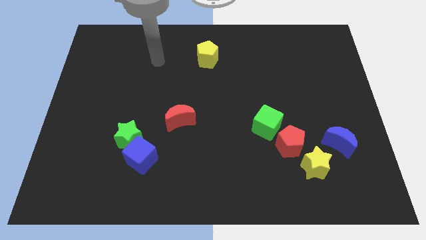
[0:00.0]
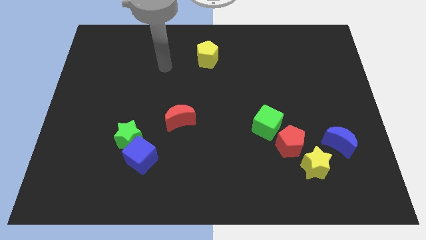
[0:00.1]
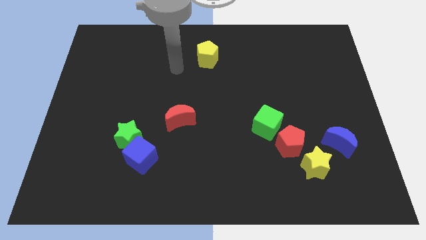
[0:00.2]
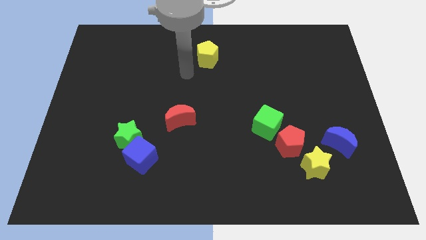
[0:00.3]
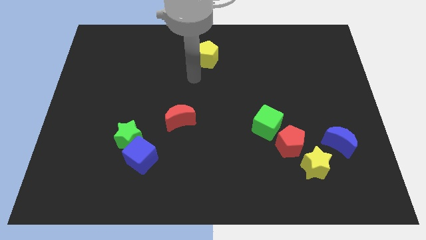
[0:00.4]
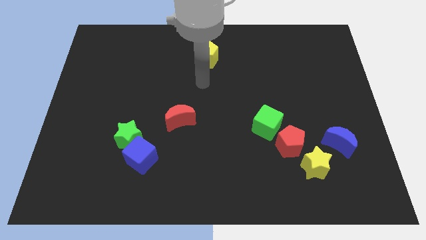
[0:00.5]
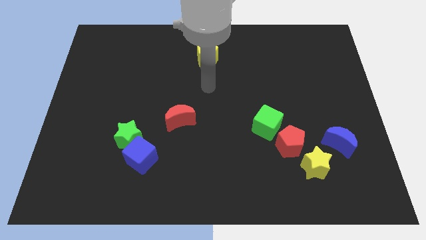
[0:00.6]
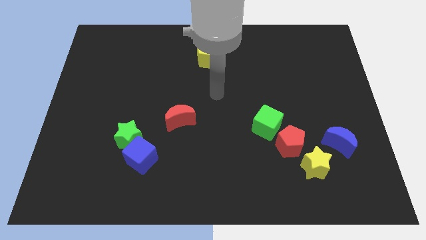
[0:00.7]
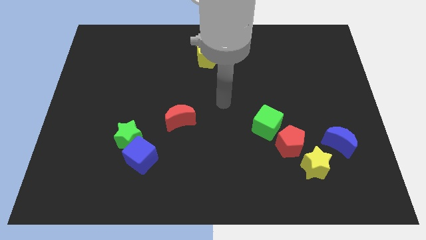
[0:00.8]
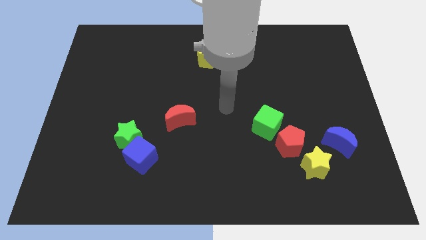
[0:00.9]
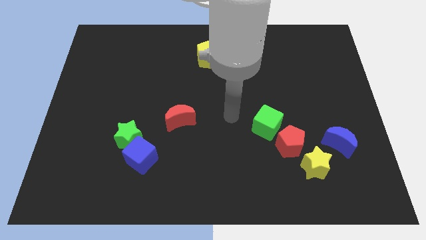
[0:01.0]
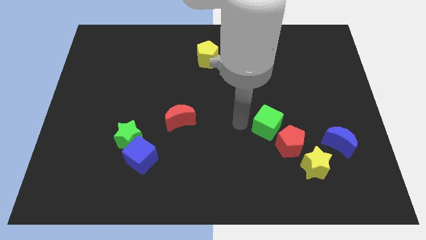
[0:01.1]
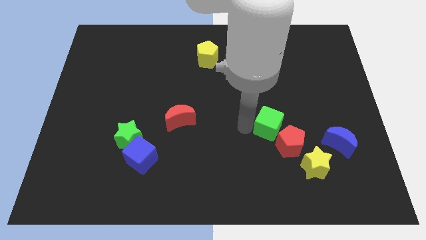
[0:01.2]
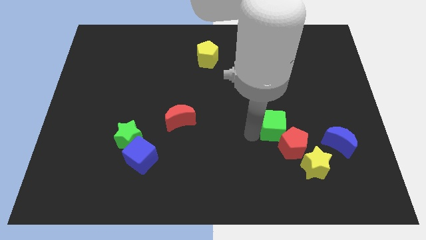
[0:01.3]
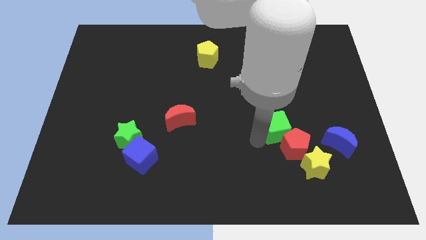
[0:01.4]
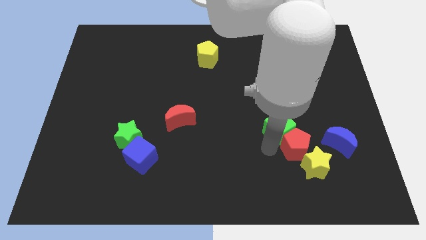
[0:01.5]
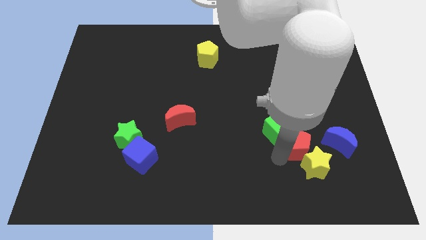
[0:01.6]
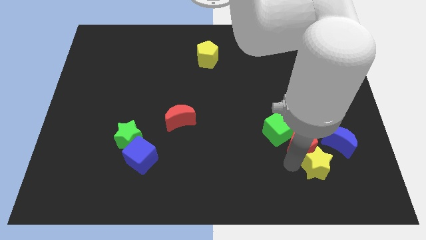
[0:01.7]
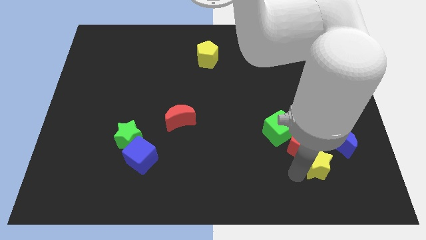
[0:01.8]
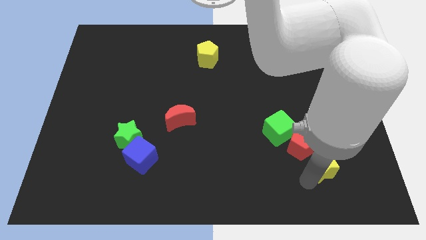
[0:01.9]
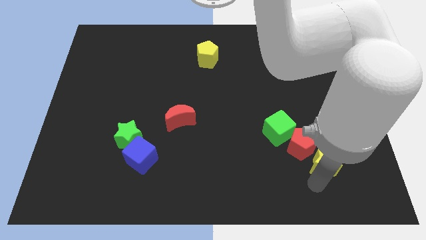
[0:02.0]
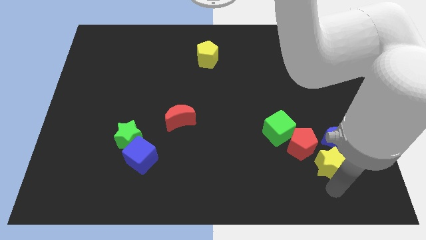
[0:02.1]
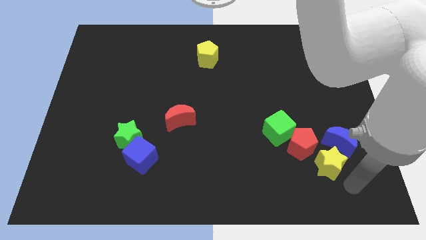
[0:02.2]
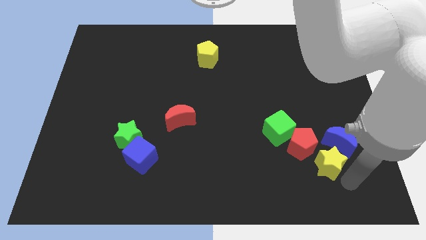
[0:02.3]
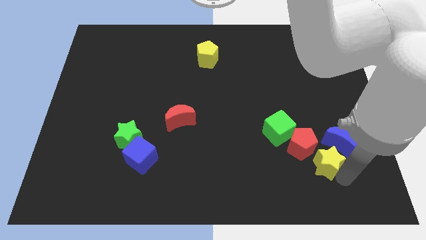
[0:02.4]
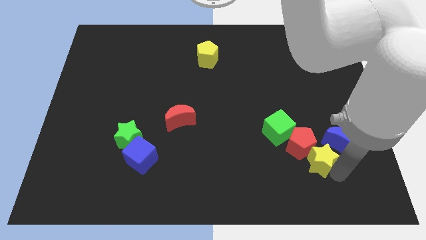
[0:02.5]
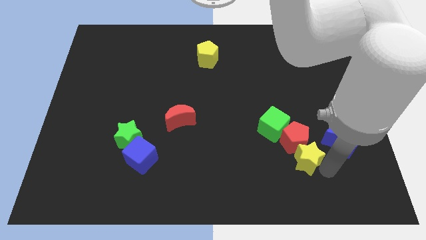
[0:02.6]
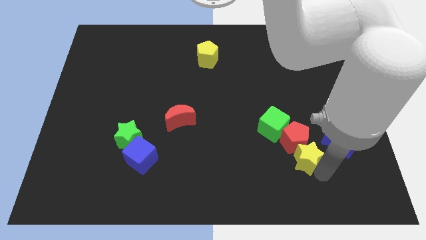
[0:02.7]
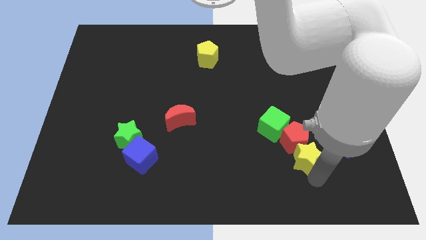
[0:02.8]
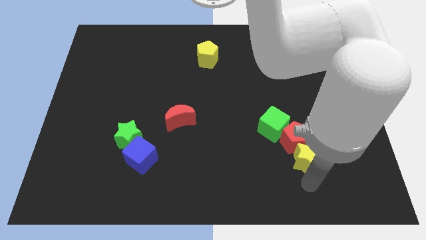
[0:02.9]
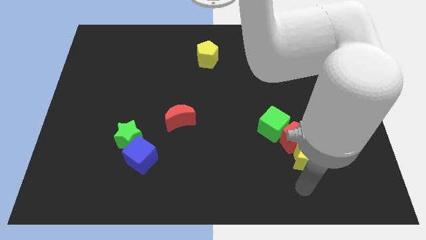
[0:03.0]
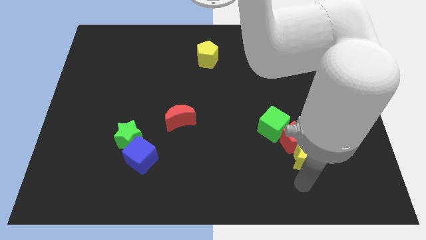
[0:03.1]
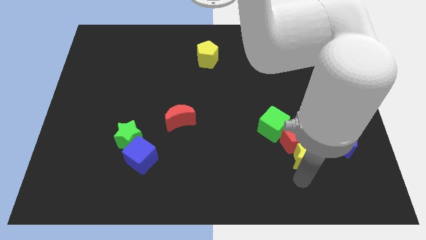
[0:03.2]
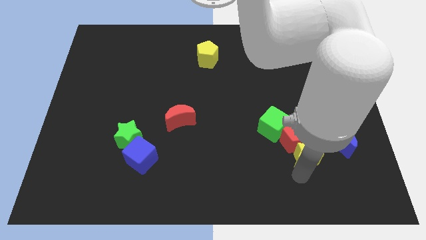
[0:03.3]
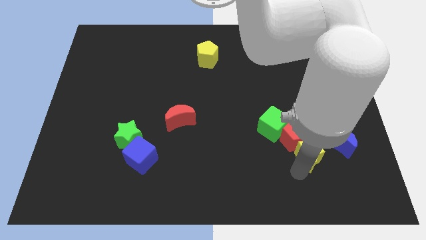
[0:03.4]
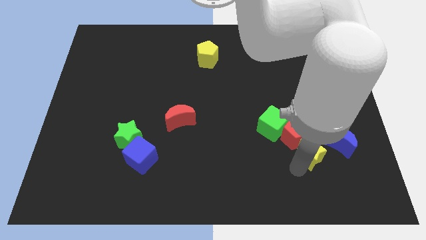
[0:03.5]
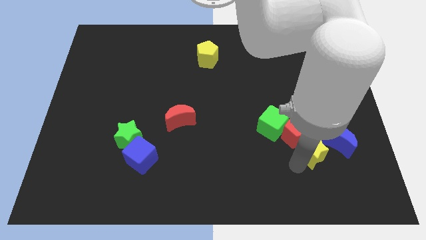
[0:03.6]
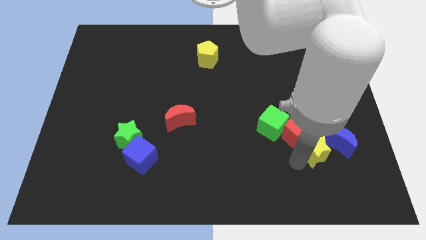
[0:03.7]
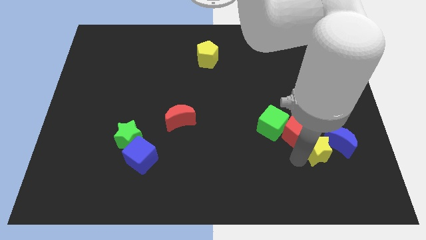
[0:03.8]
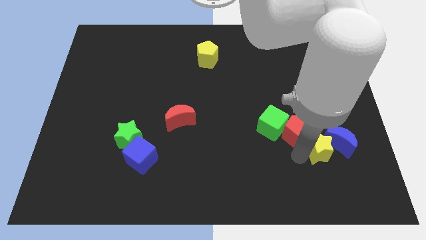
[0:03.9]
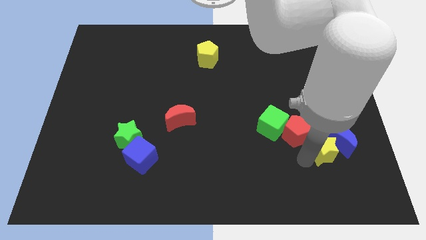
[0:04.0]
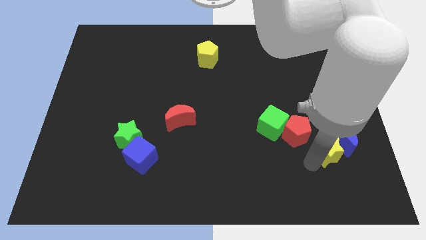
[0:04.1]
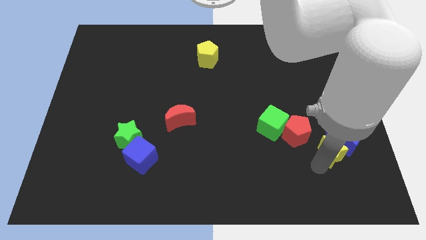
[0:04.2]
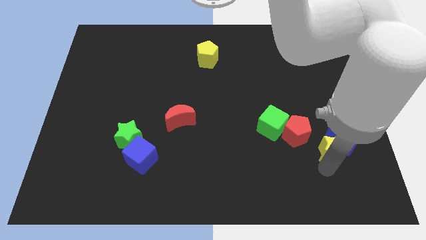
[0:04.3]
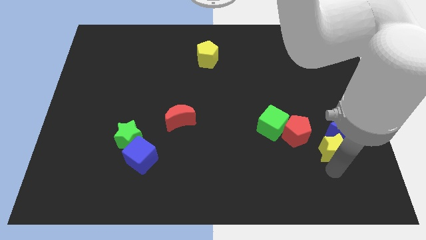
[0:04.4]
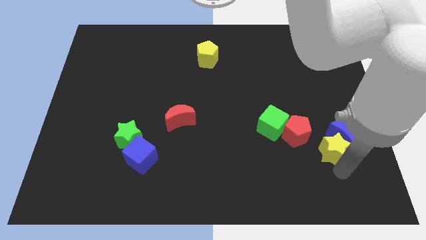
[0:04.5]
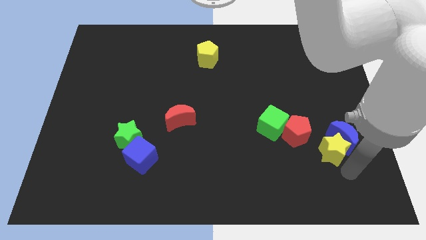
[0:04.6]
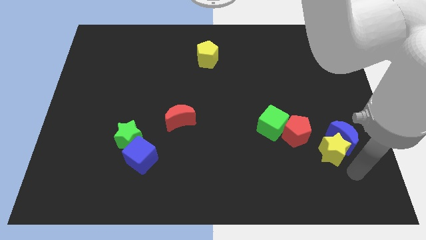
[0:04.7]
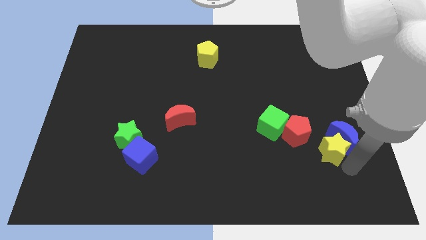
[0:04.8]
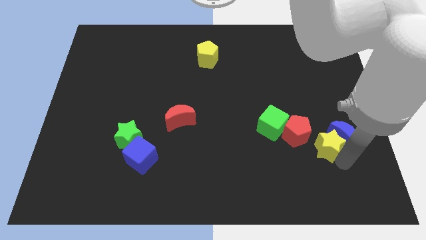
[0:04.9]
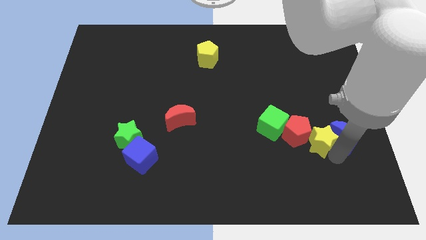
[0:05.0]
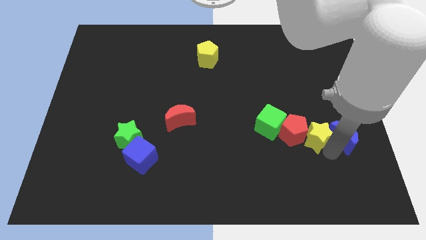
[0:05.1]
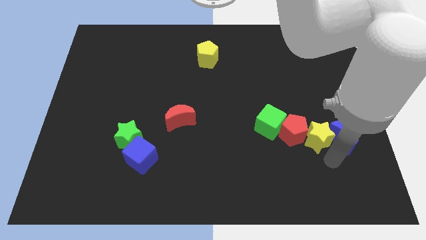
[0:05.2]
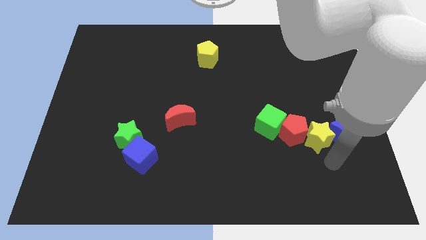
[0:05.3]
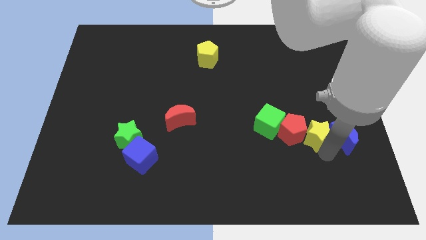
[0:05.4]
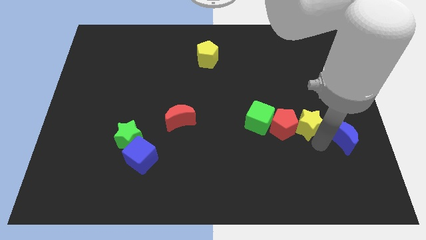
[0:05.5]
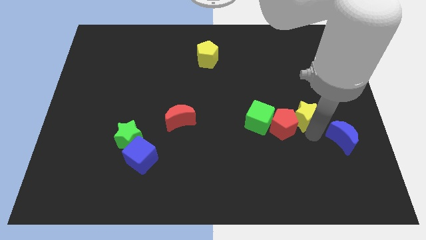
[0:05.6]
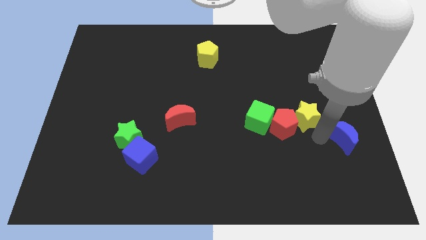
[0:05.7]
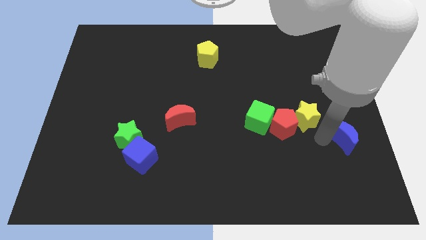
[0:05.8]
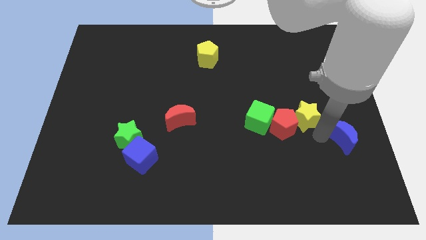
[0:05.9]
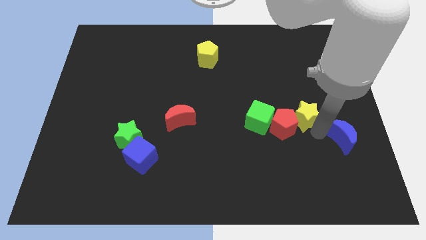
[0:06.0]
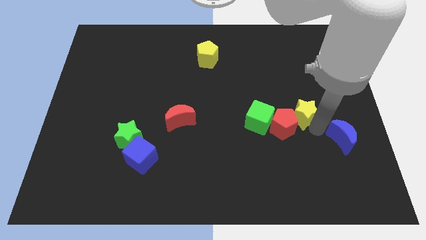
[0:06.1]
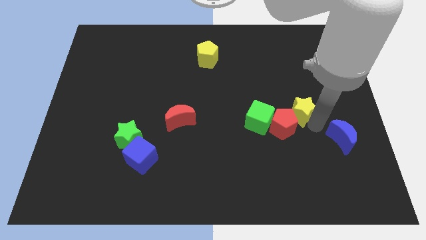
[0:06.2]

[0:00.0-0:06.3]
move the yellow star above the red pentagon

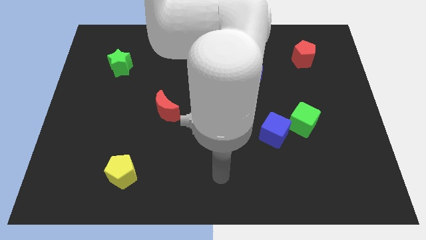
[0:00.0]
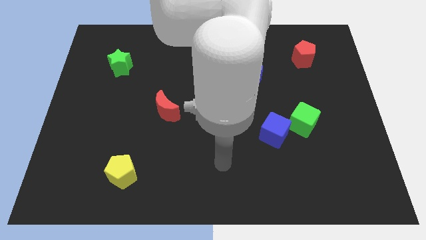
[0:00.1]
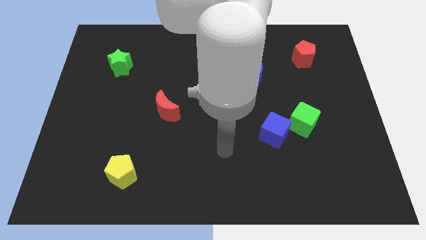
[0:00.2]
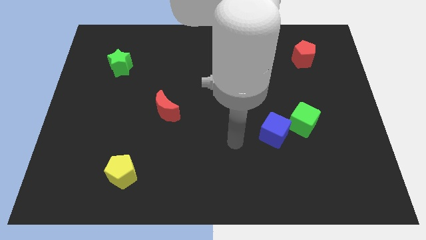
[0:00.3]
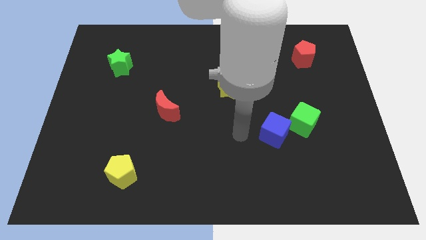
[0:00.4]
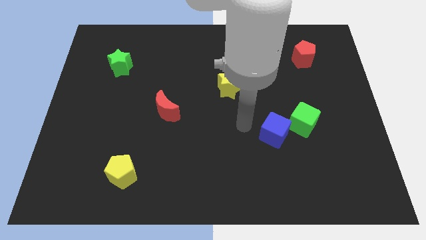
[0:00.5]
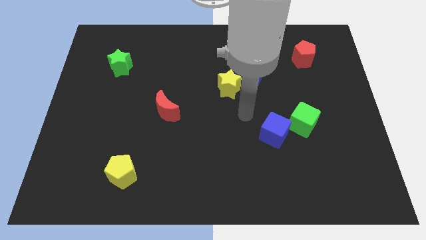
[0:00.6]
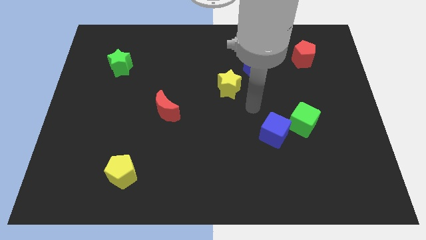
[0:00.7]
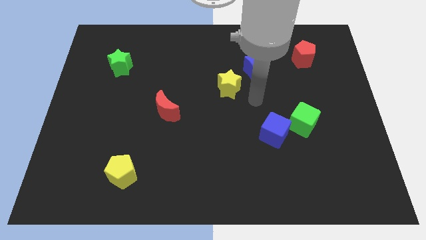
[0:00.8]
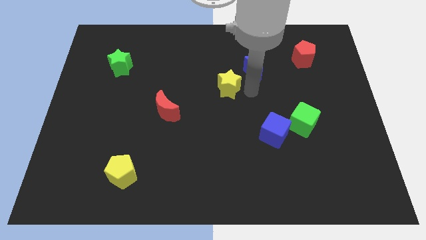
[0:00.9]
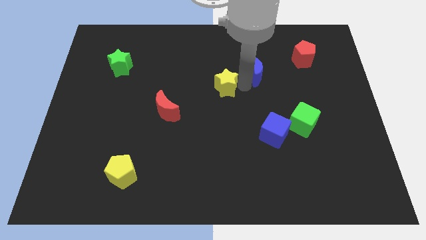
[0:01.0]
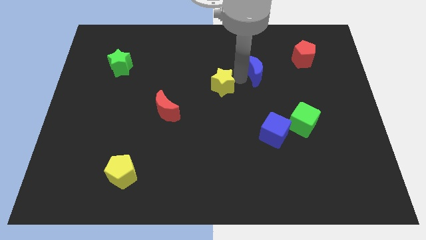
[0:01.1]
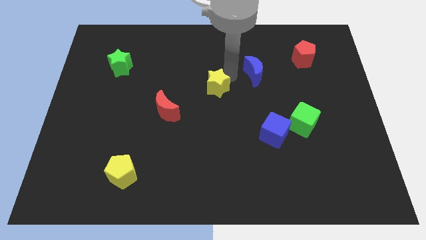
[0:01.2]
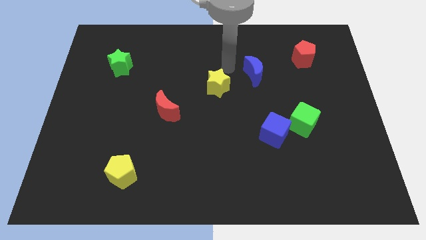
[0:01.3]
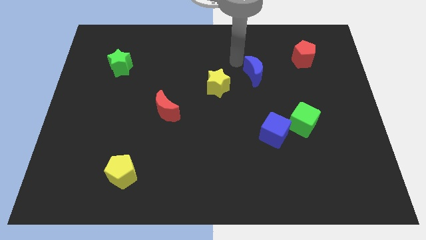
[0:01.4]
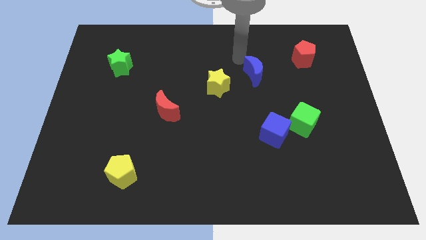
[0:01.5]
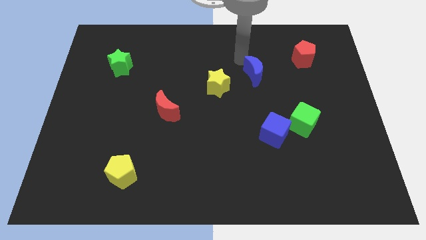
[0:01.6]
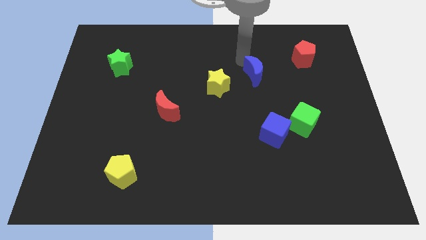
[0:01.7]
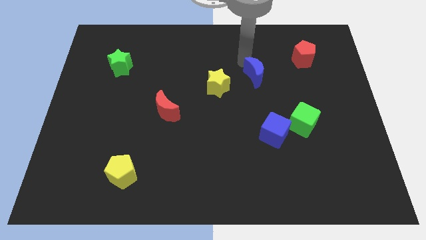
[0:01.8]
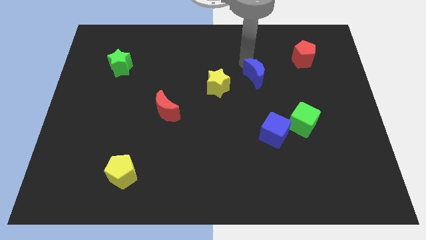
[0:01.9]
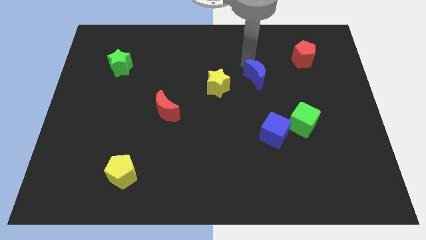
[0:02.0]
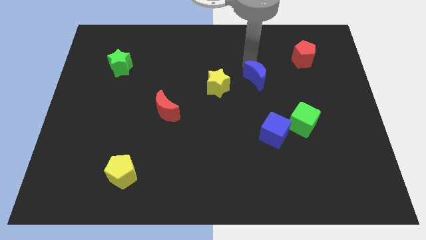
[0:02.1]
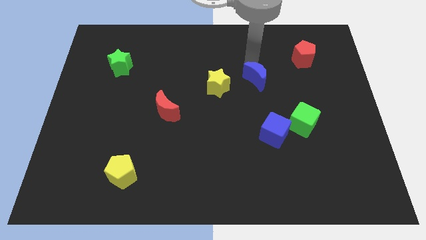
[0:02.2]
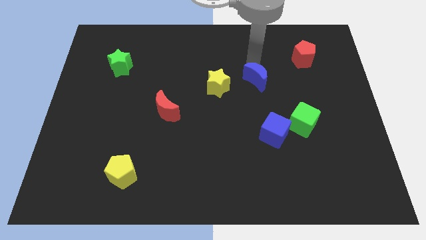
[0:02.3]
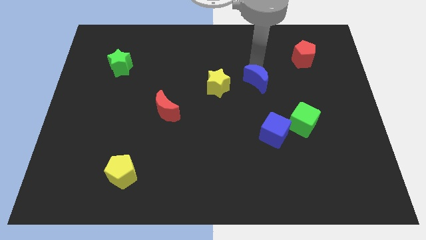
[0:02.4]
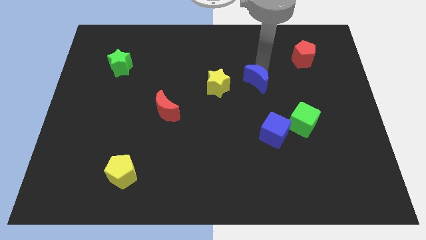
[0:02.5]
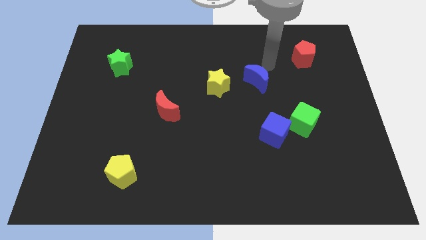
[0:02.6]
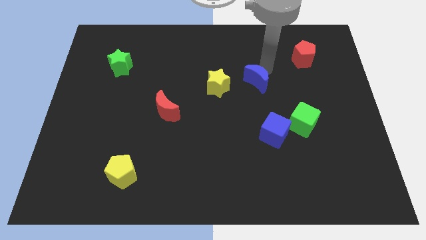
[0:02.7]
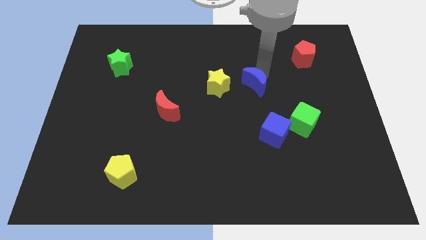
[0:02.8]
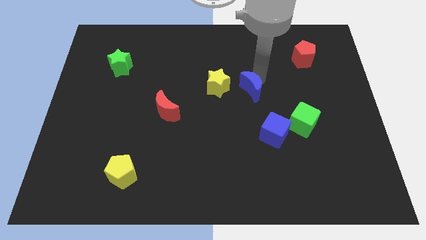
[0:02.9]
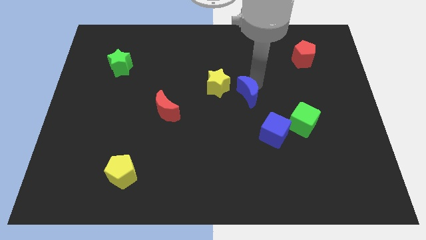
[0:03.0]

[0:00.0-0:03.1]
move the blue moon diagonally down and to the right of the yellow star
